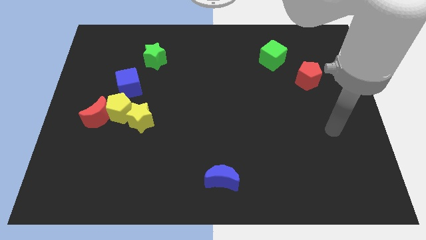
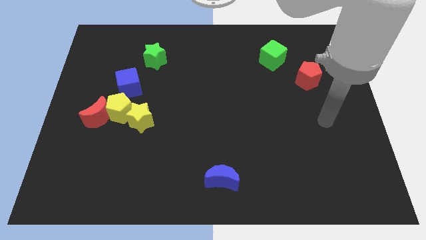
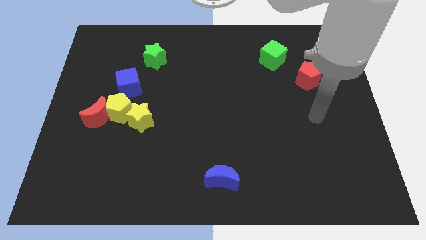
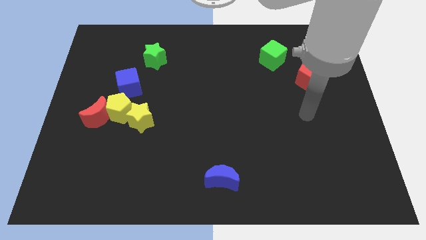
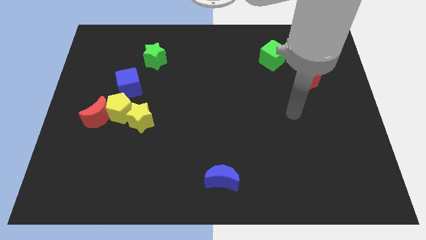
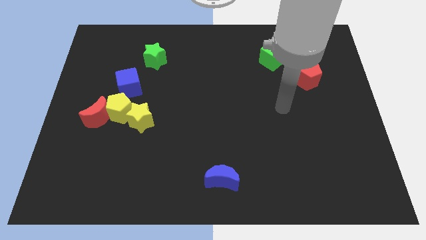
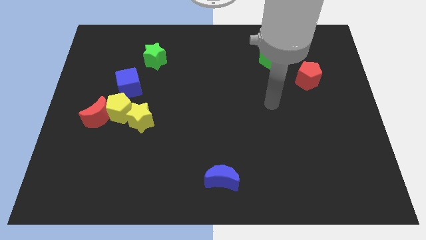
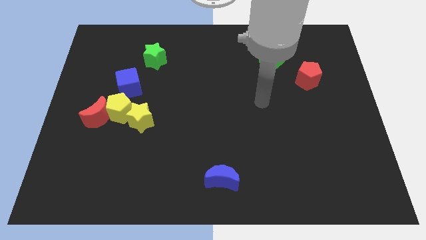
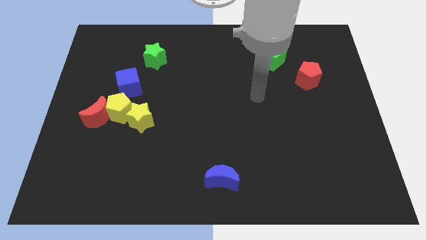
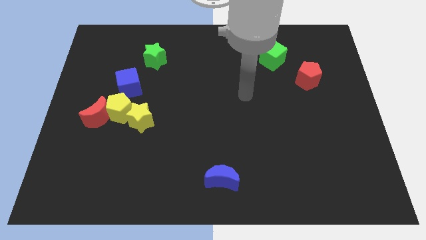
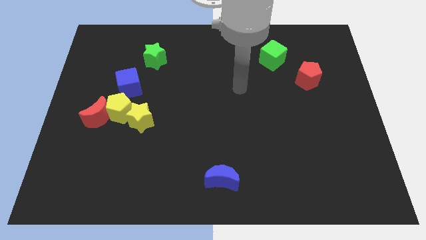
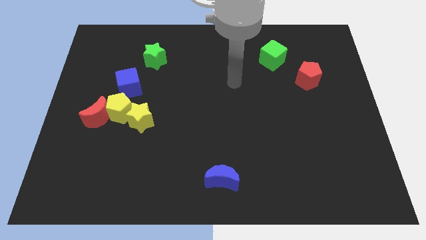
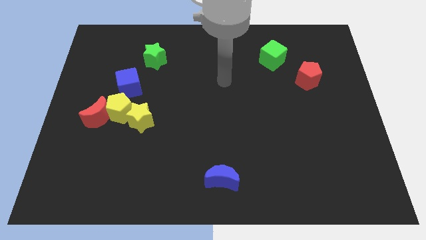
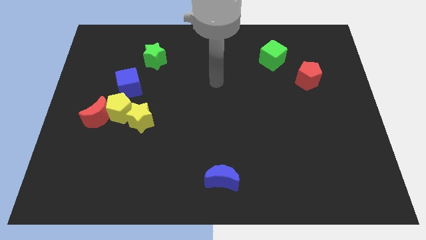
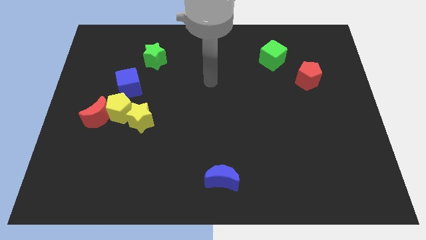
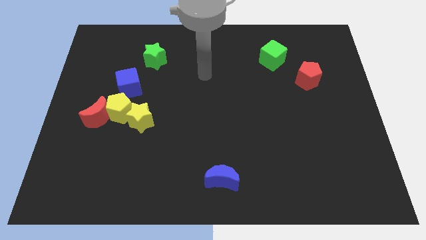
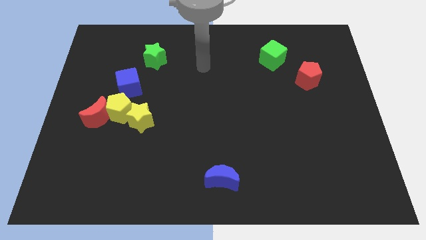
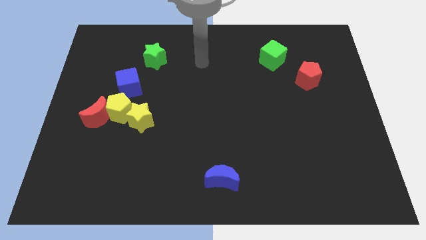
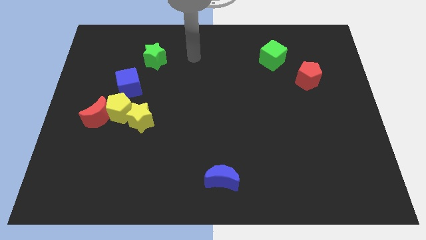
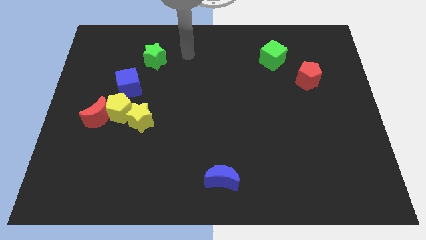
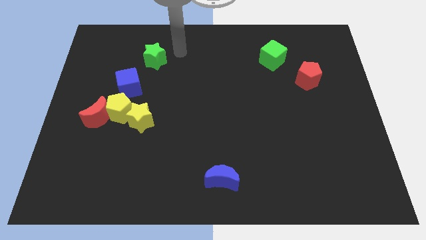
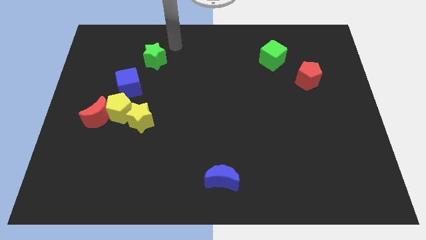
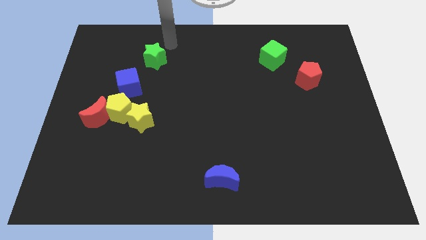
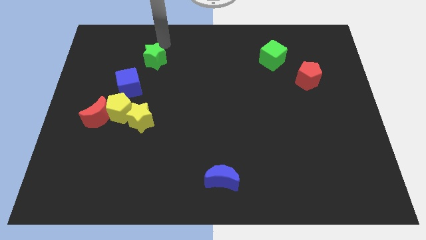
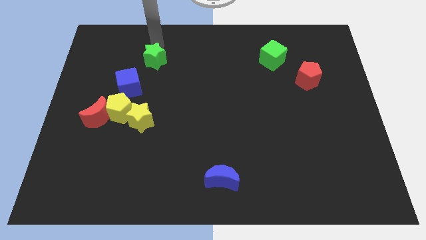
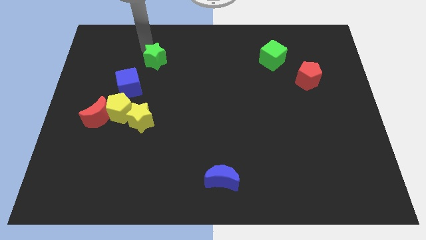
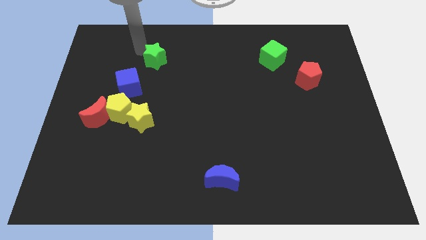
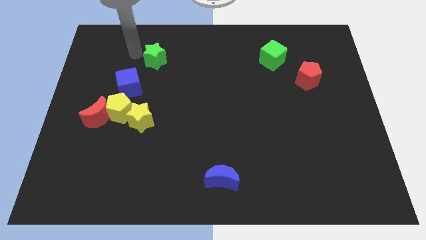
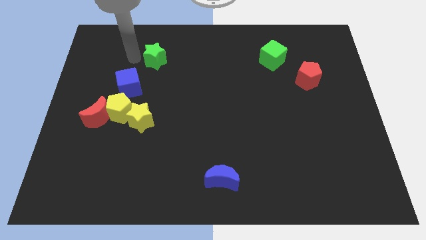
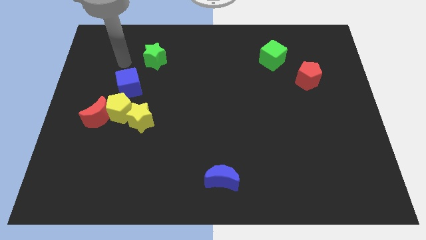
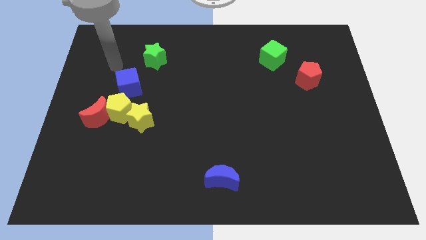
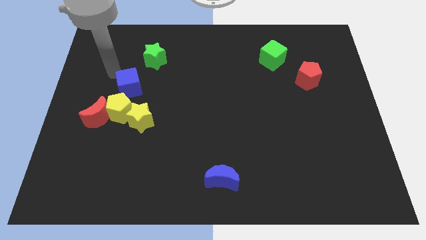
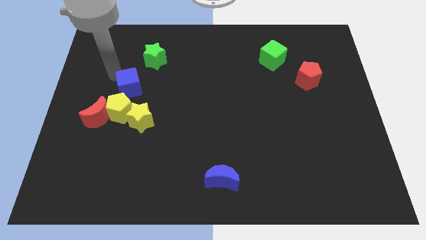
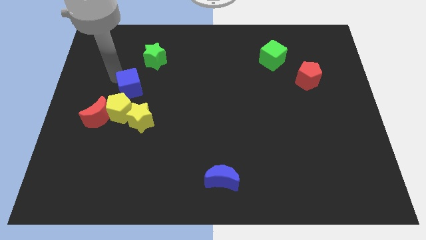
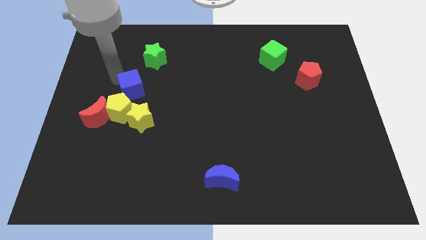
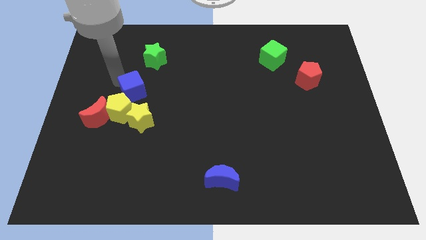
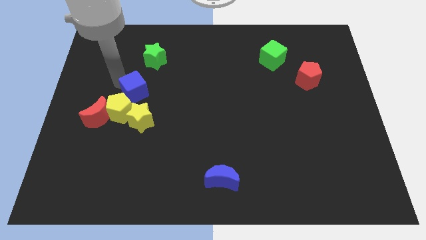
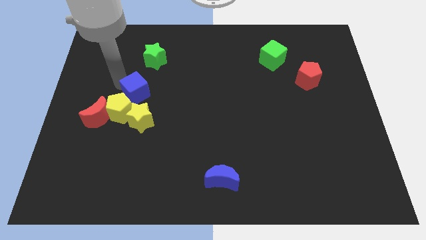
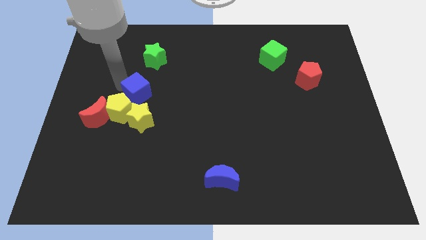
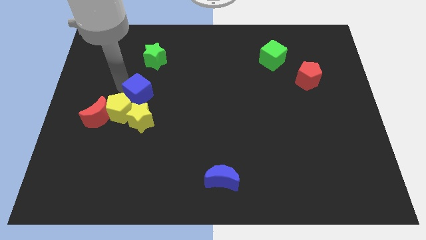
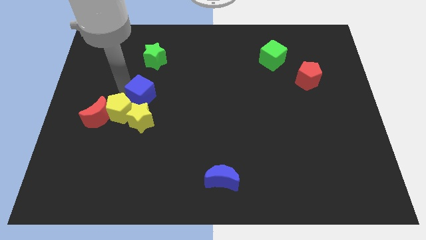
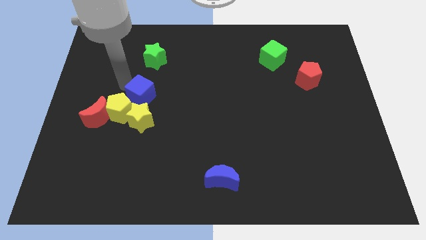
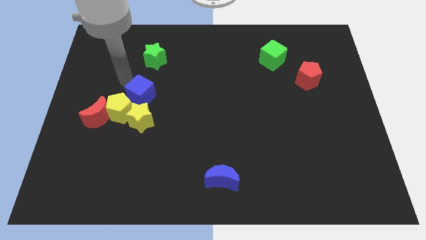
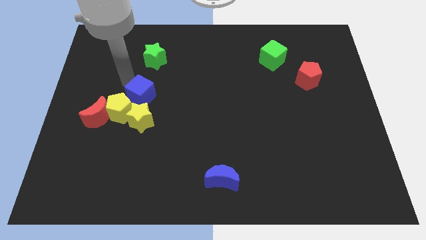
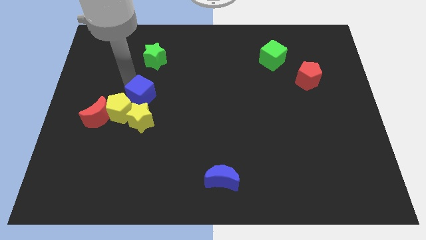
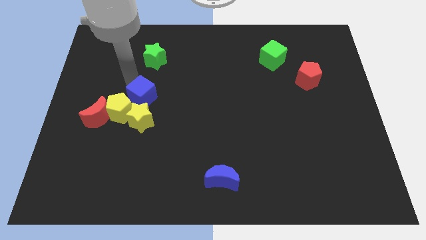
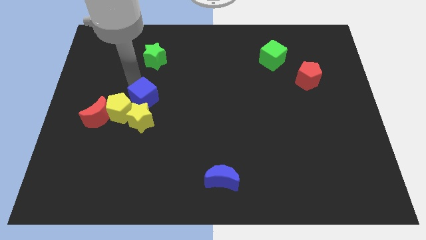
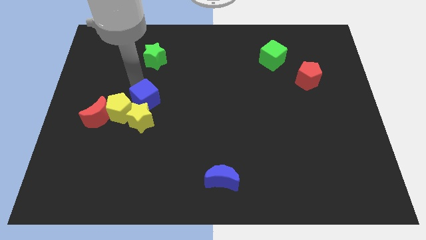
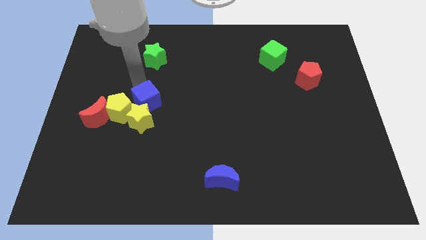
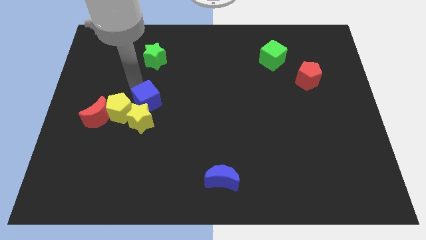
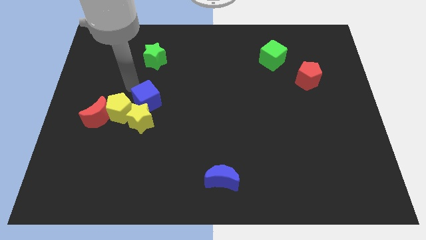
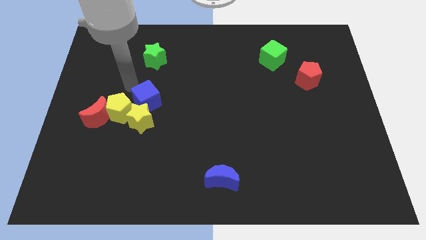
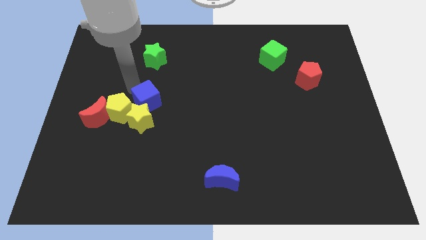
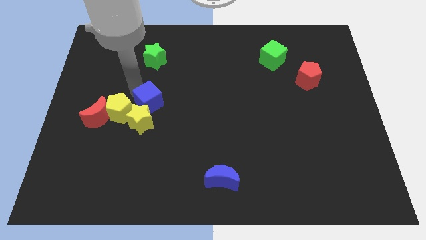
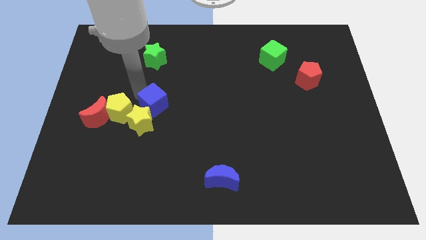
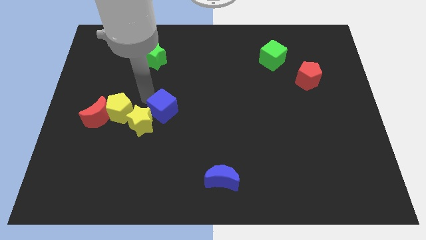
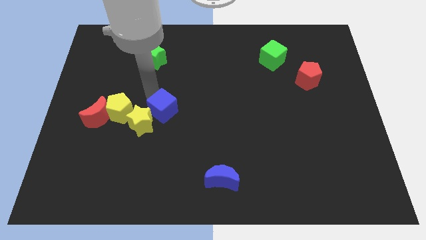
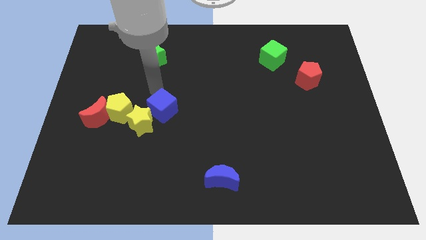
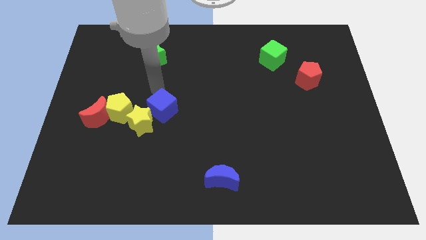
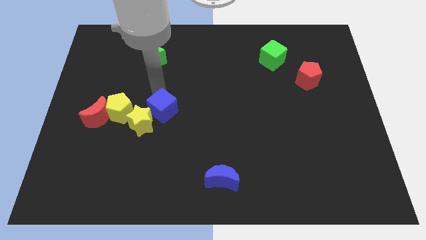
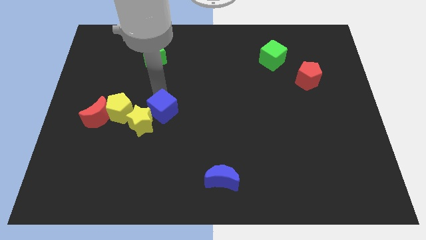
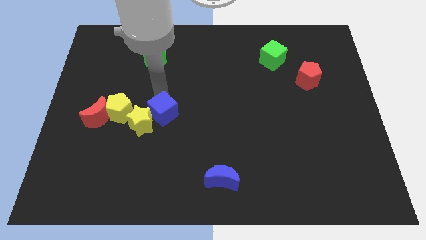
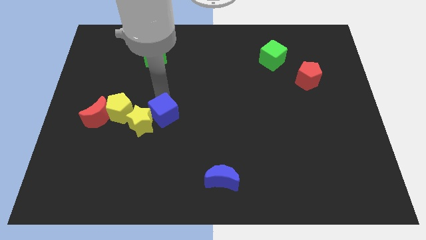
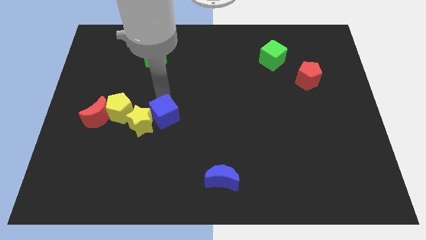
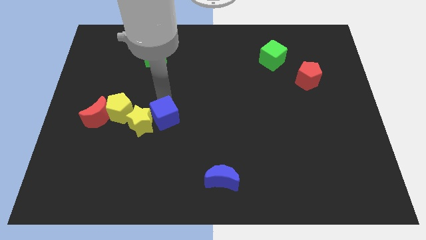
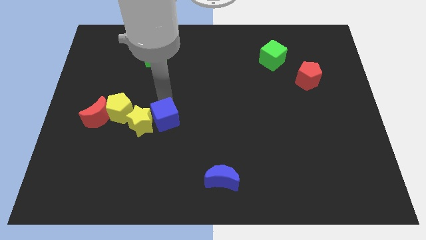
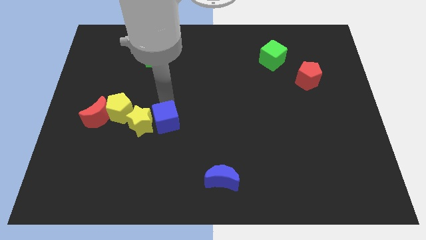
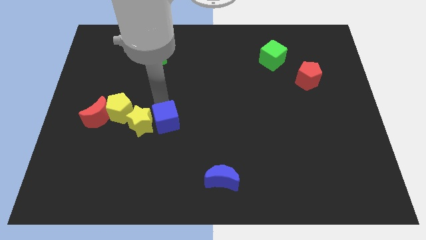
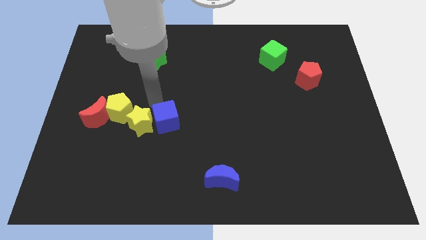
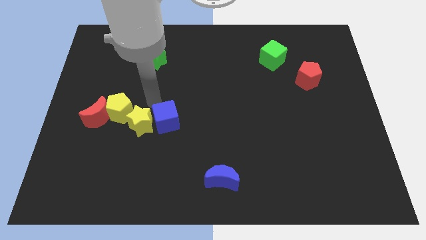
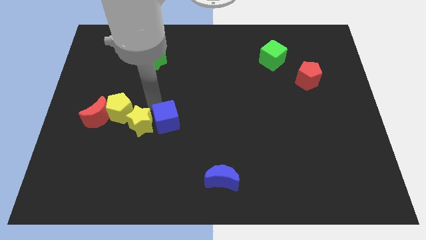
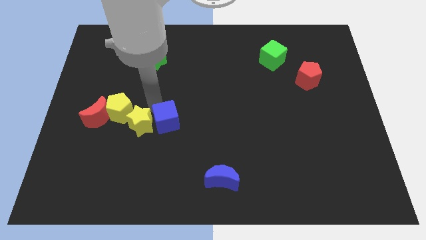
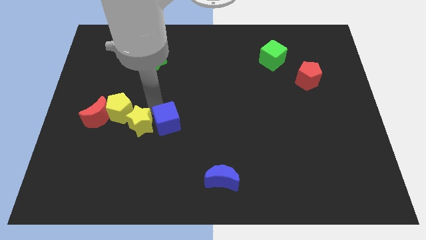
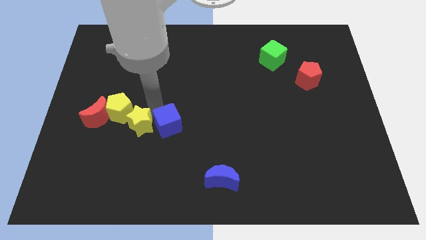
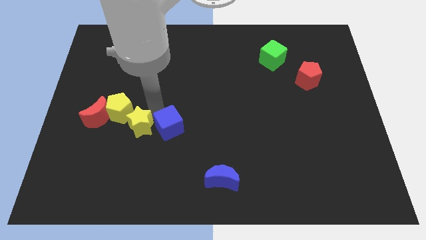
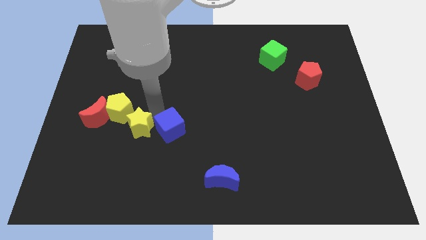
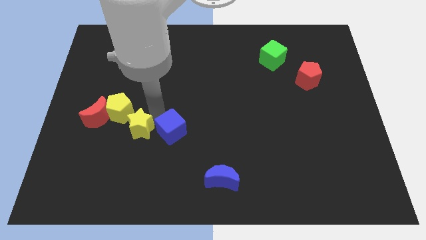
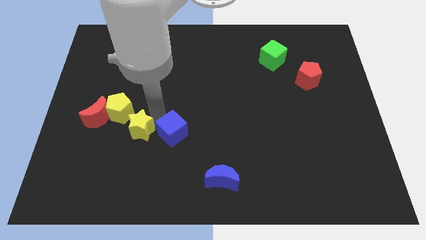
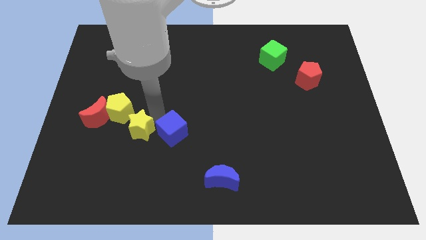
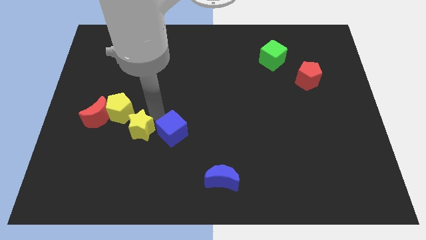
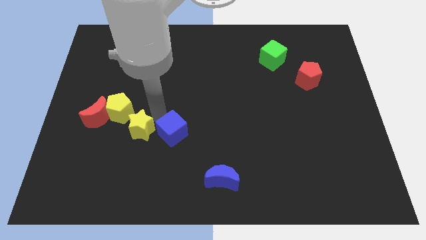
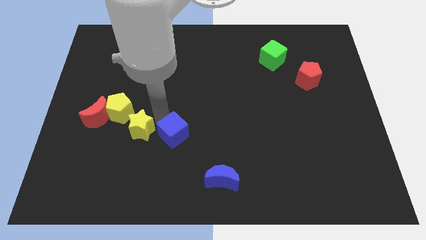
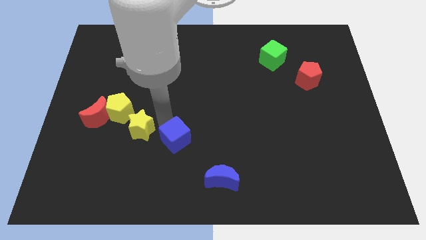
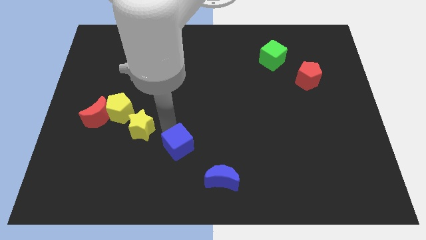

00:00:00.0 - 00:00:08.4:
slide the blue cube to the top left side of the blue moon
